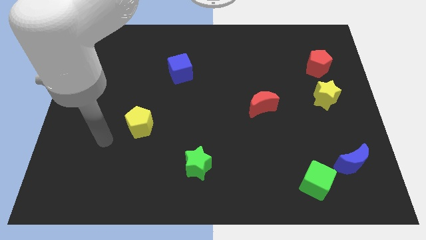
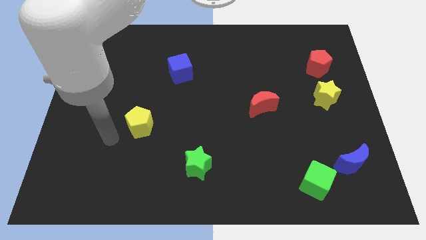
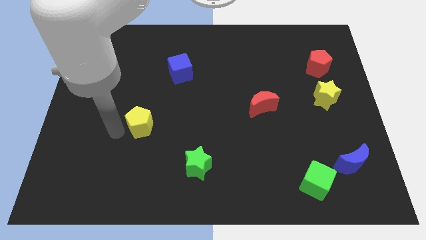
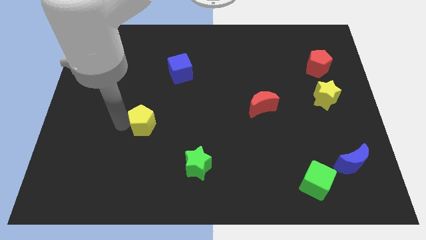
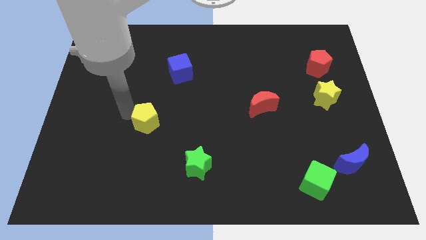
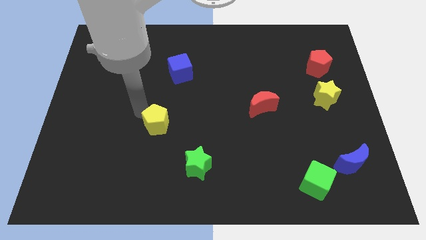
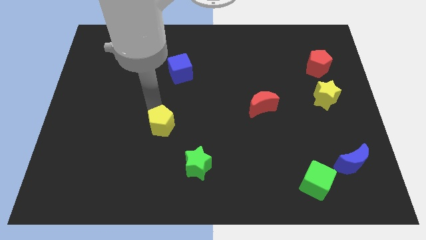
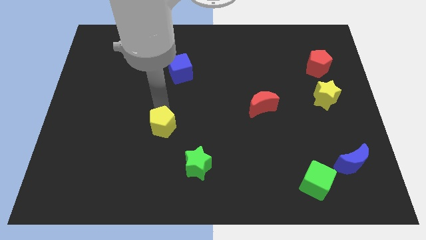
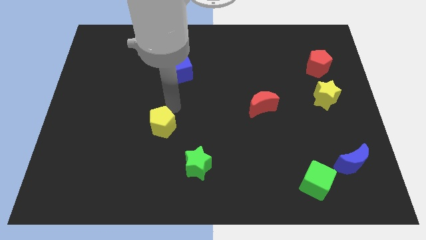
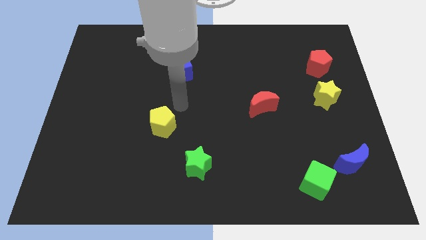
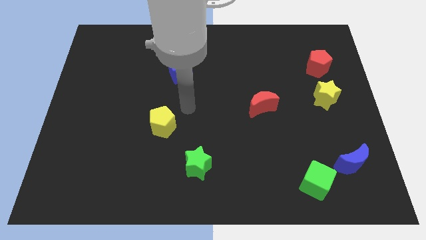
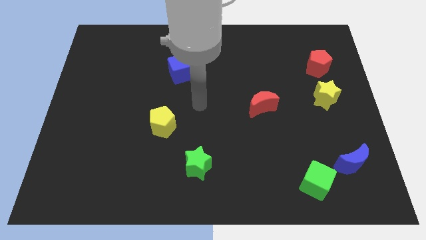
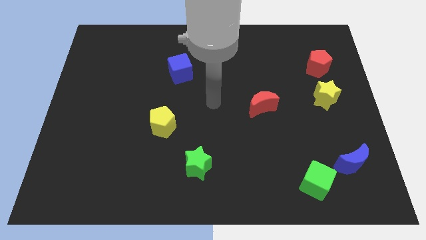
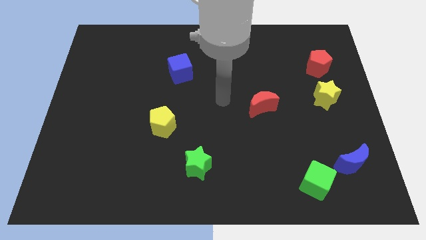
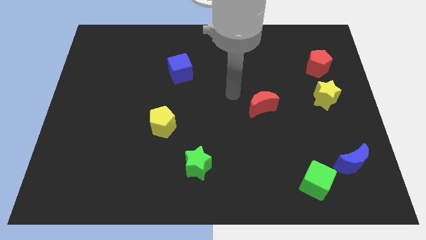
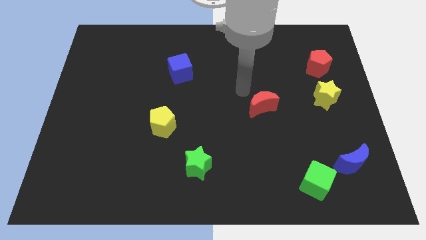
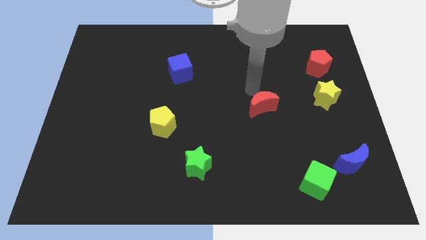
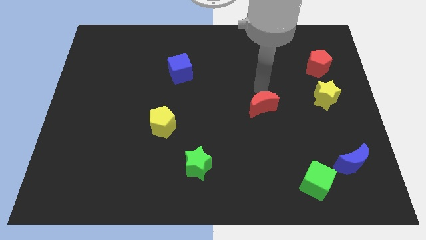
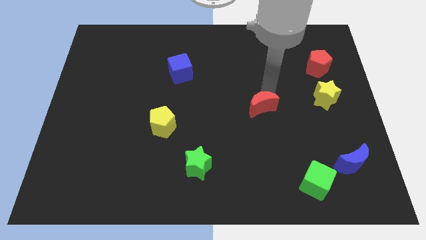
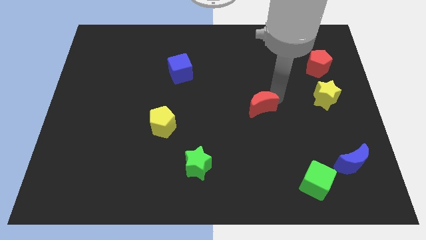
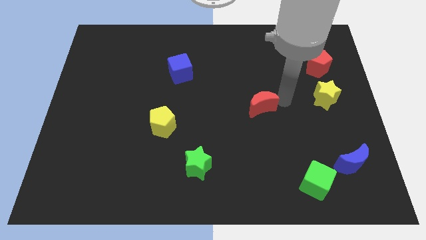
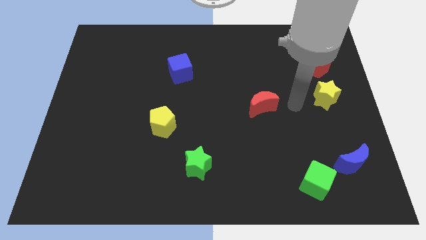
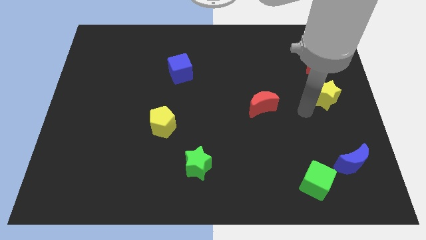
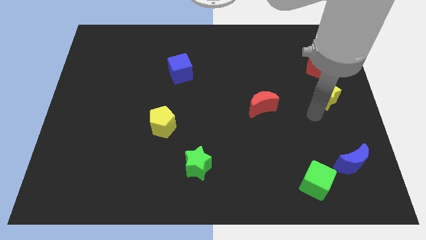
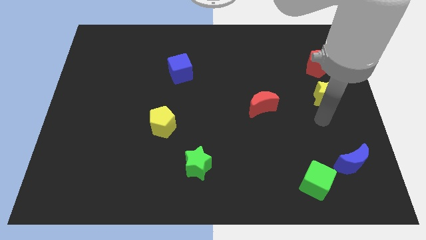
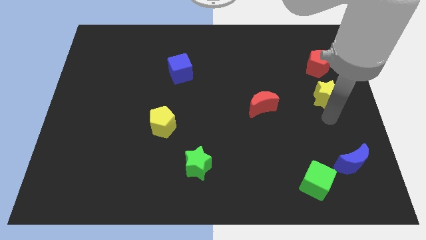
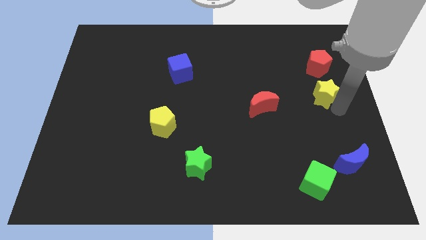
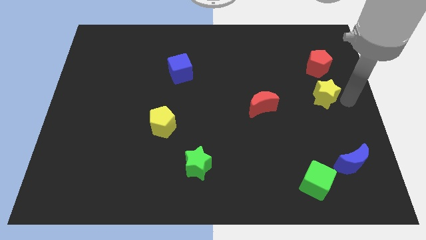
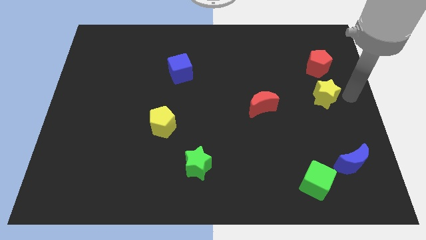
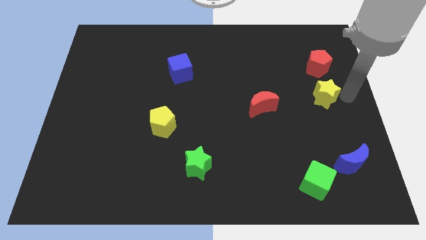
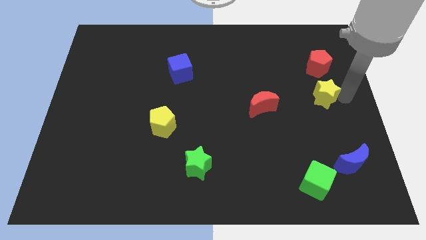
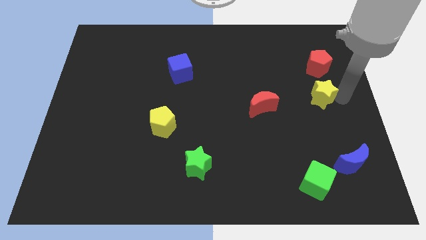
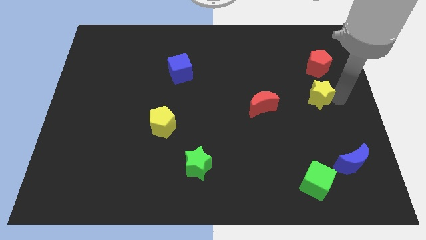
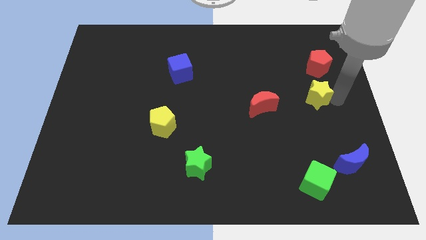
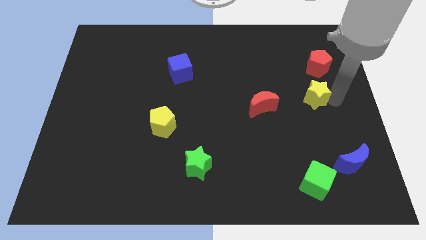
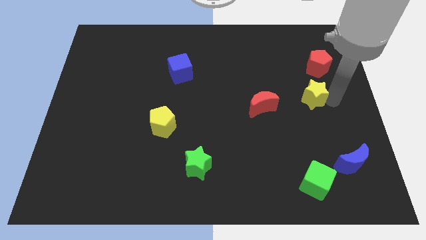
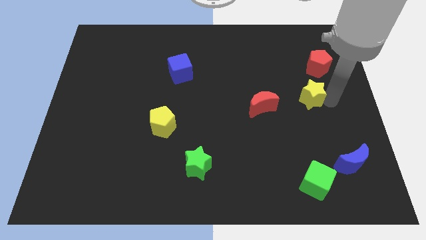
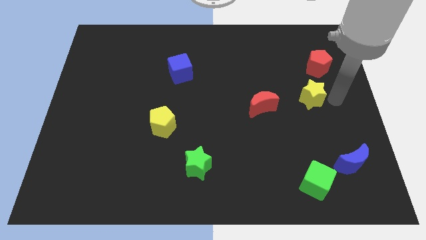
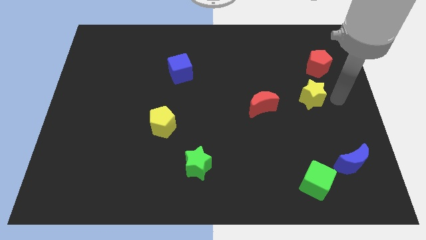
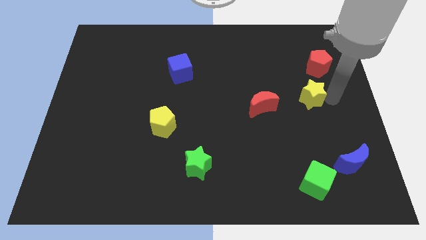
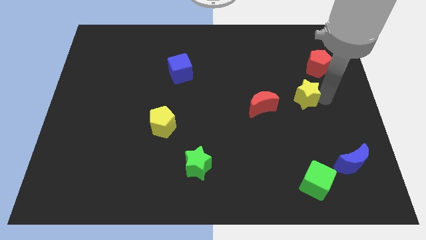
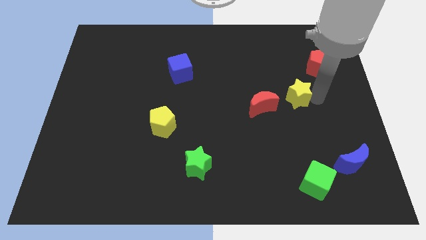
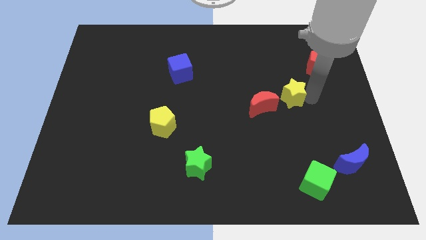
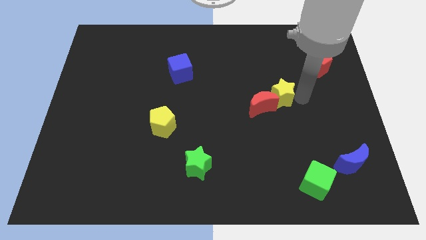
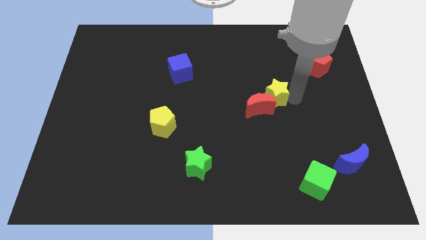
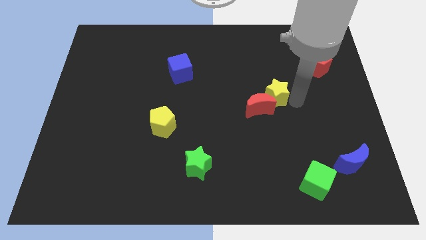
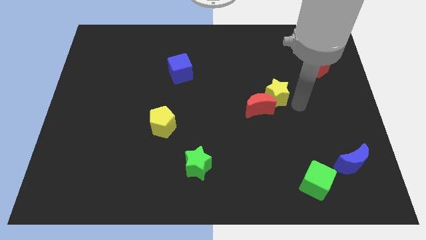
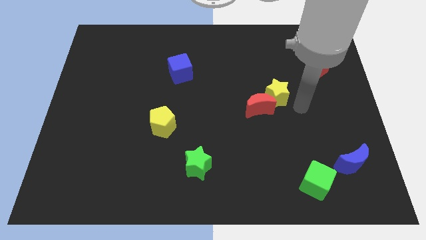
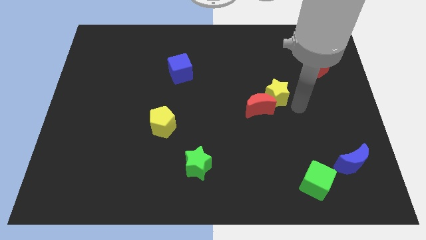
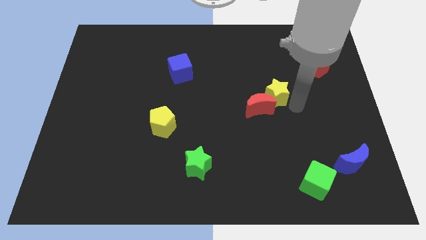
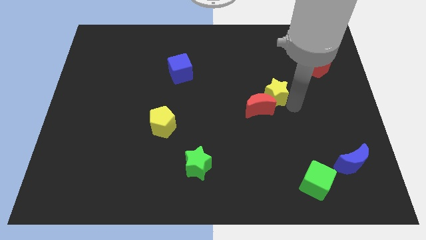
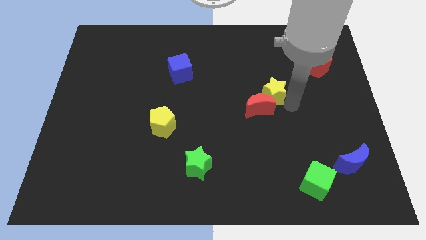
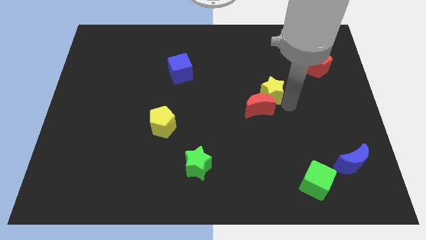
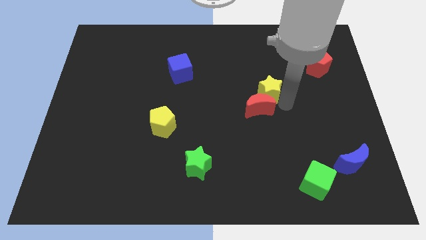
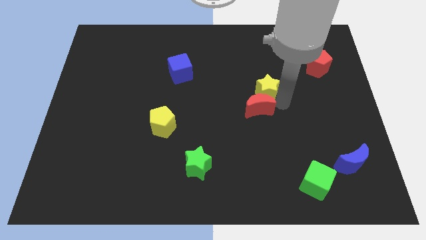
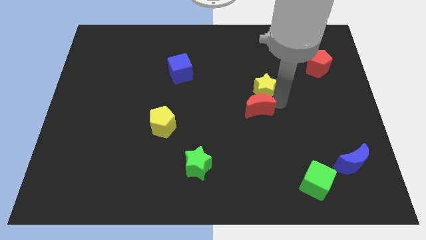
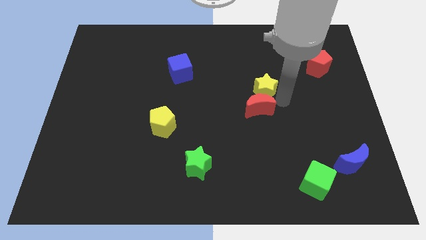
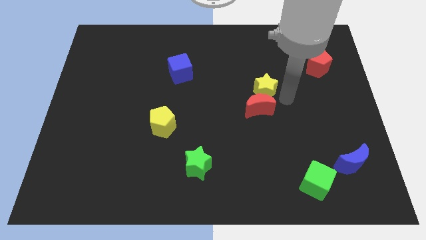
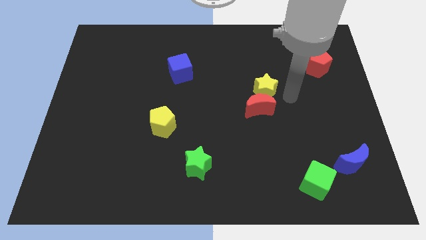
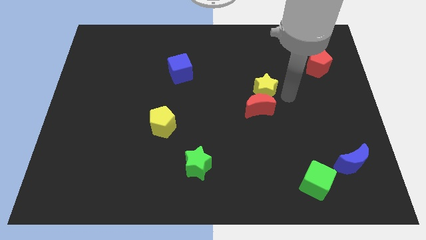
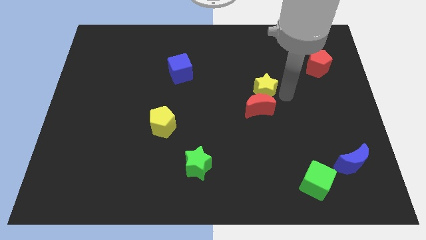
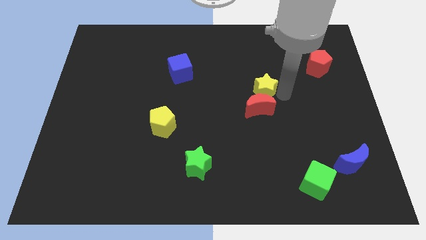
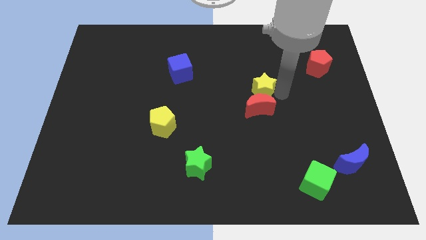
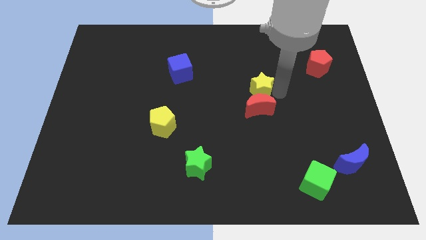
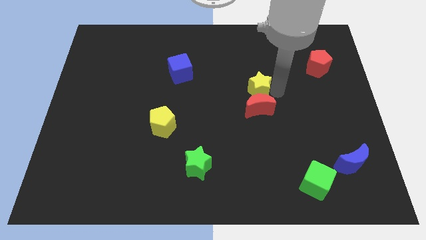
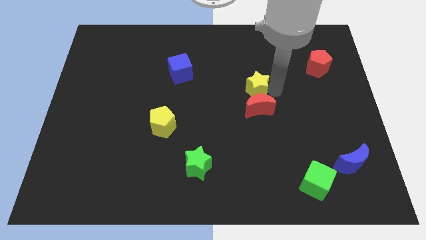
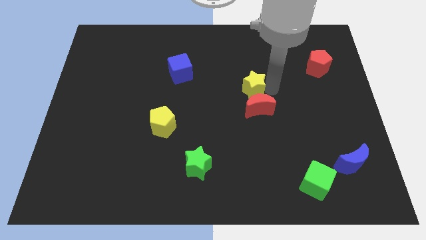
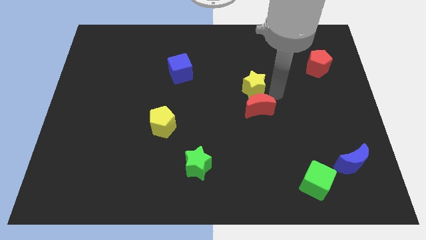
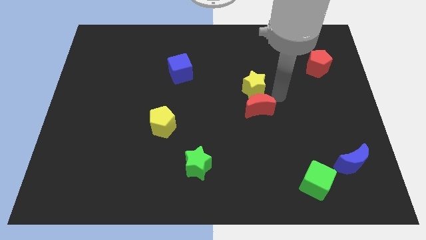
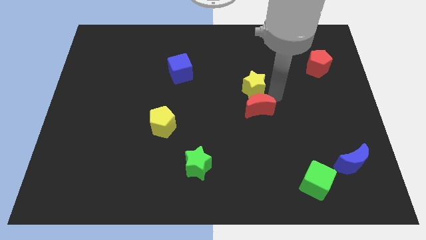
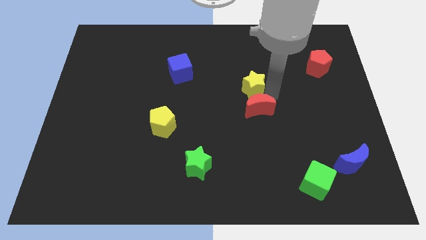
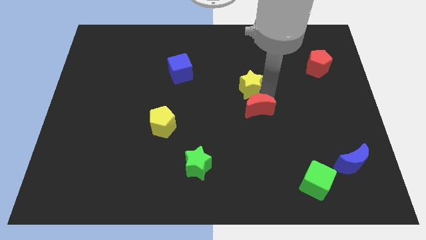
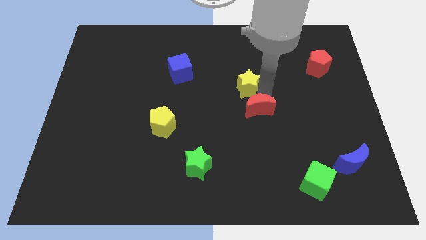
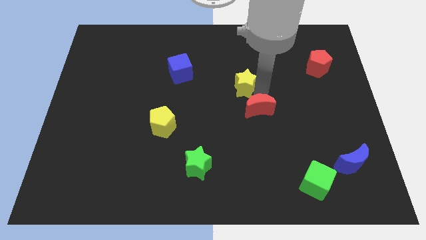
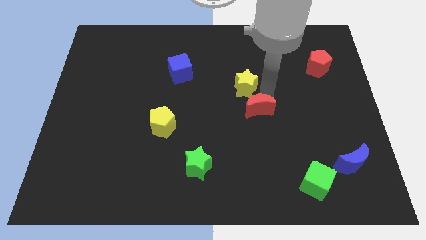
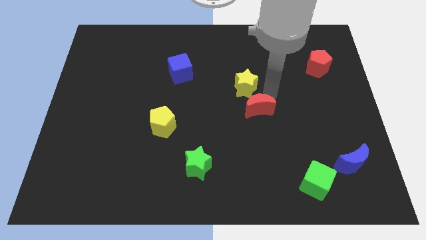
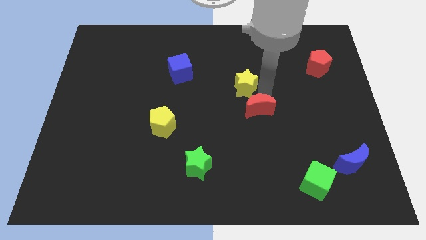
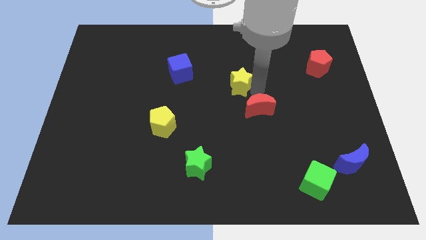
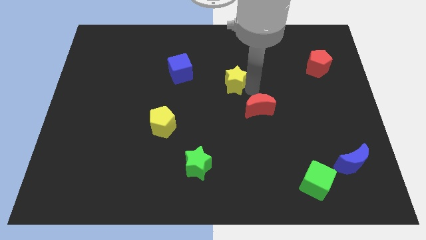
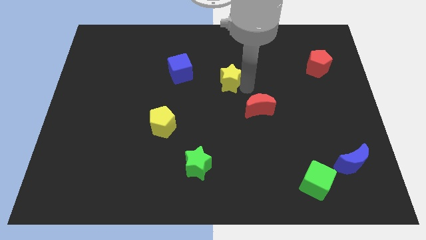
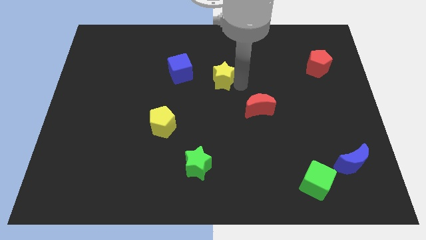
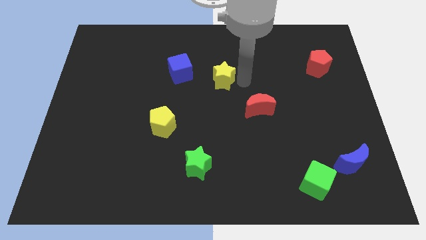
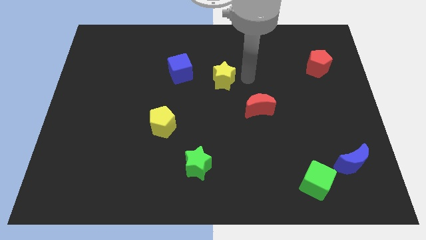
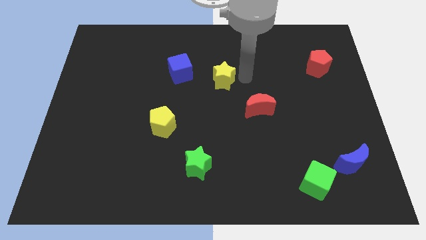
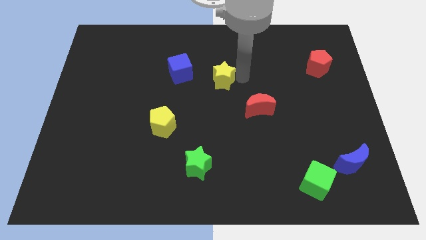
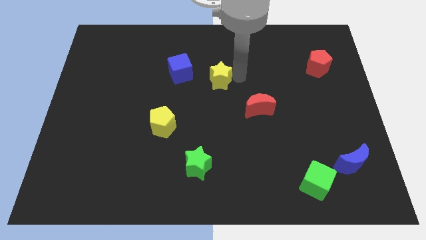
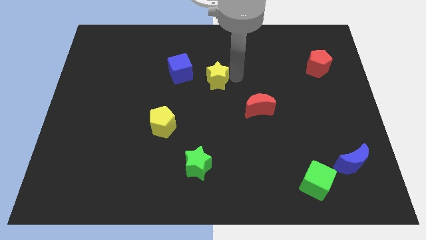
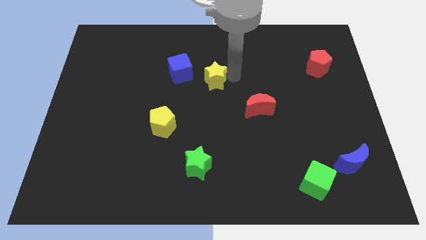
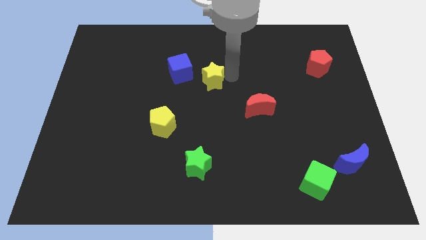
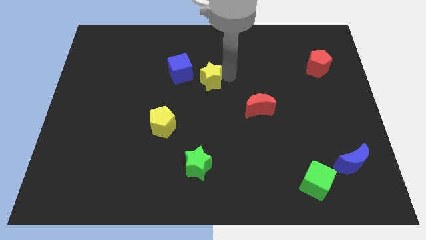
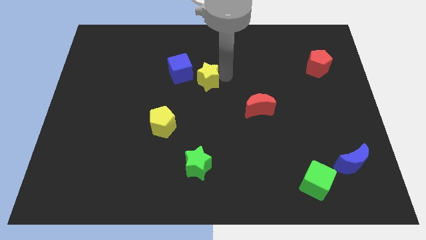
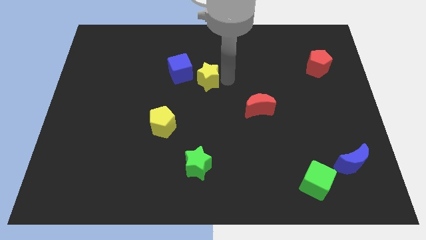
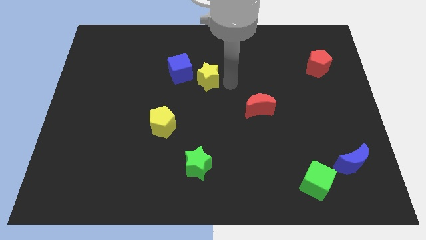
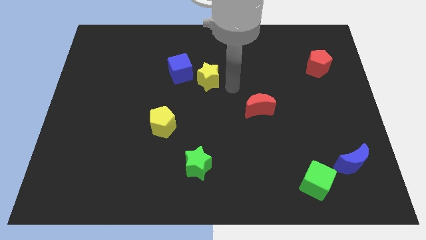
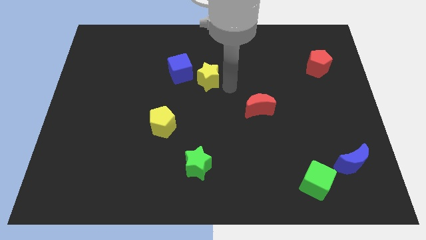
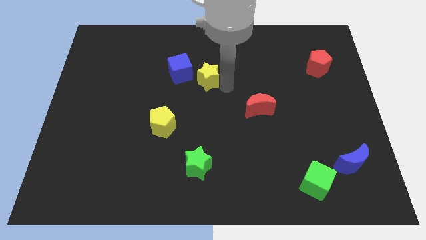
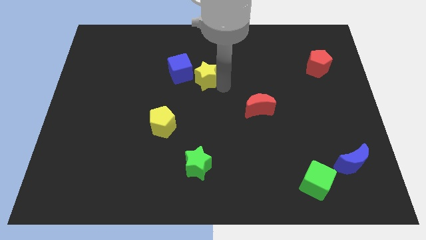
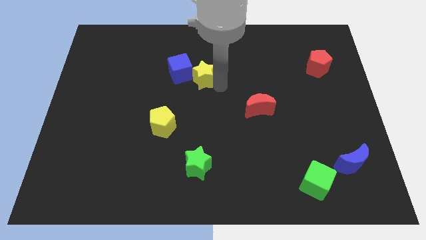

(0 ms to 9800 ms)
move the yellow star next to the blue cube
